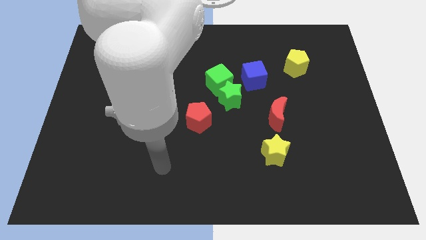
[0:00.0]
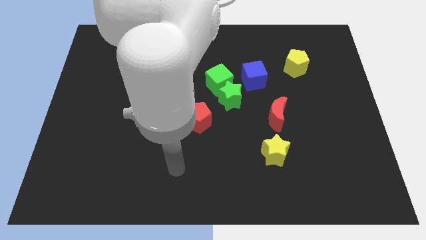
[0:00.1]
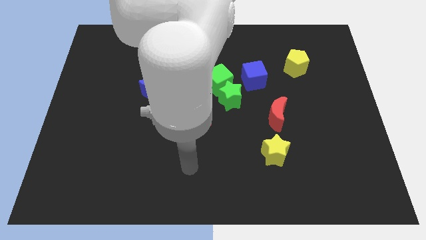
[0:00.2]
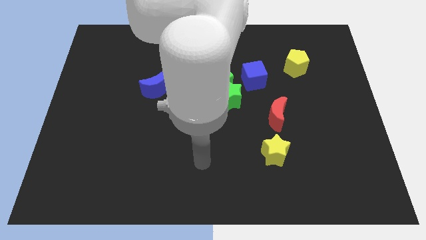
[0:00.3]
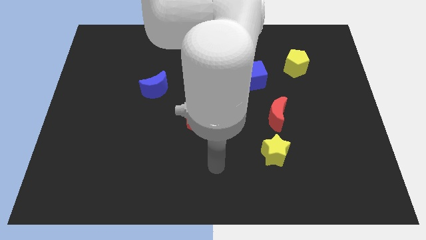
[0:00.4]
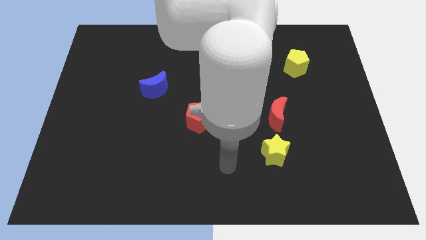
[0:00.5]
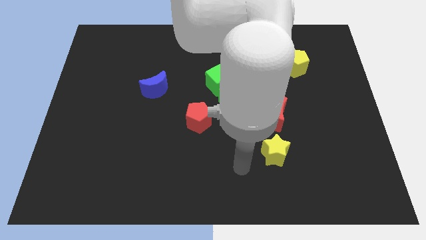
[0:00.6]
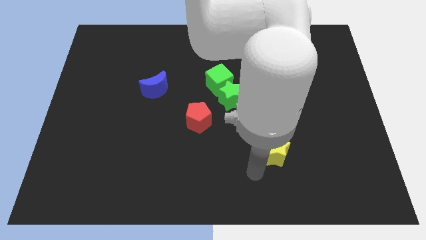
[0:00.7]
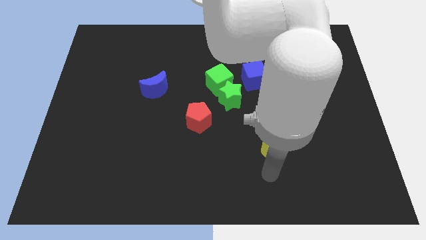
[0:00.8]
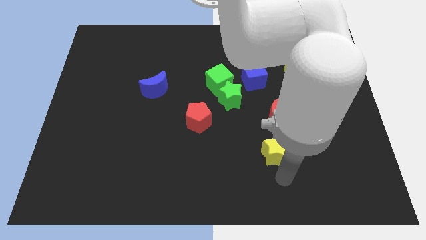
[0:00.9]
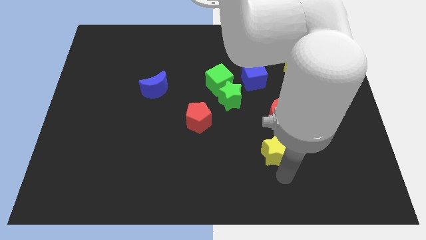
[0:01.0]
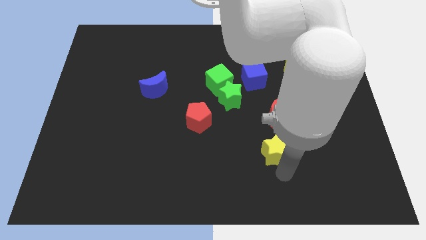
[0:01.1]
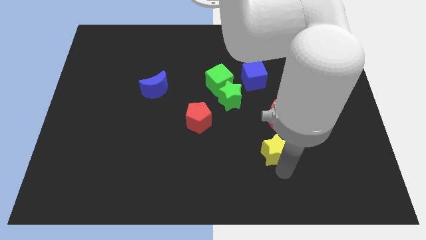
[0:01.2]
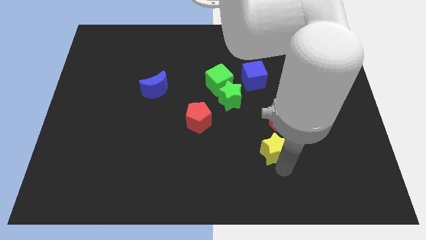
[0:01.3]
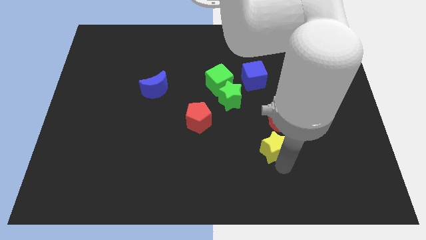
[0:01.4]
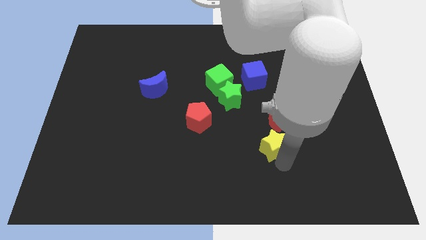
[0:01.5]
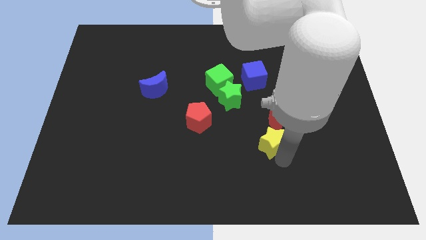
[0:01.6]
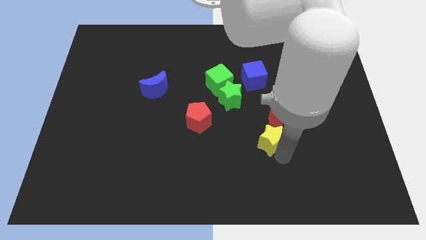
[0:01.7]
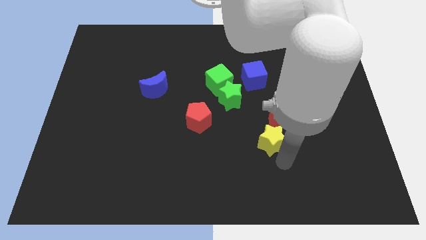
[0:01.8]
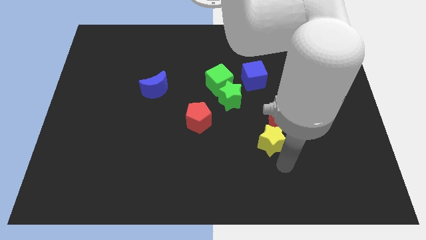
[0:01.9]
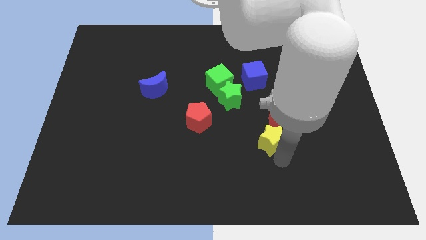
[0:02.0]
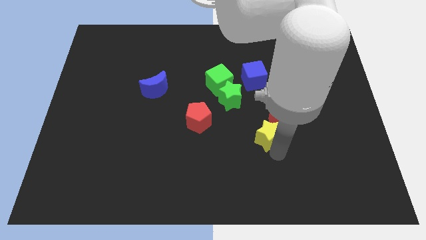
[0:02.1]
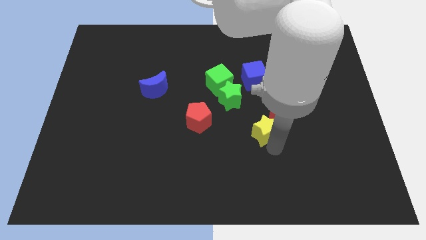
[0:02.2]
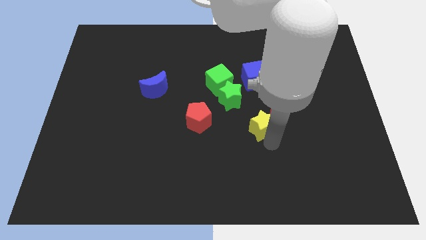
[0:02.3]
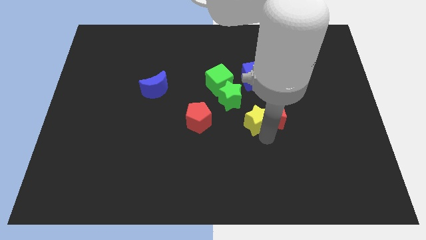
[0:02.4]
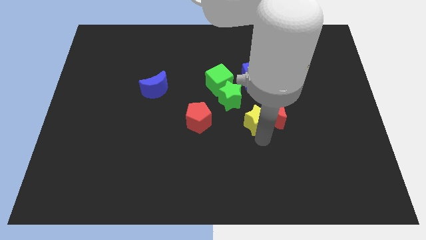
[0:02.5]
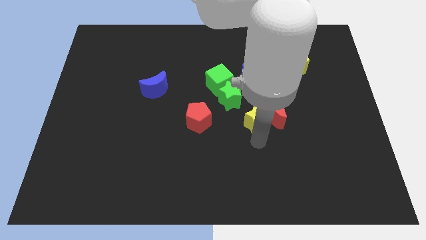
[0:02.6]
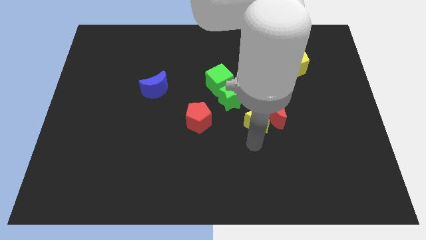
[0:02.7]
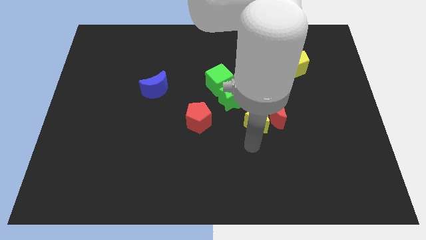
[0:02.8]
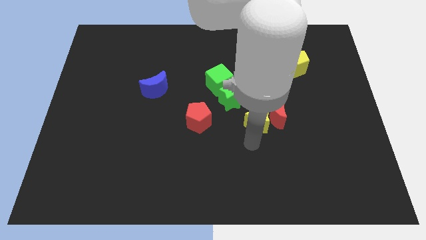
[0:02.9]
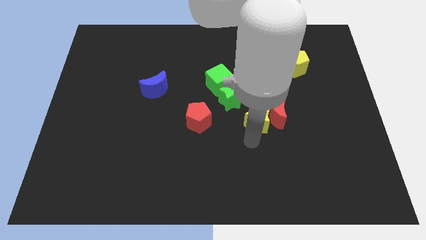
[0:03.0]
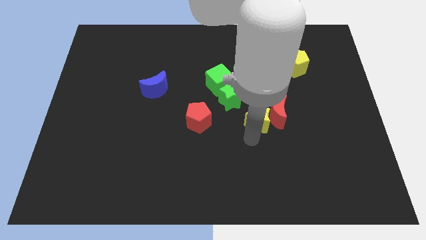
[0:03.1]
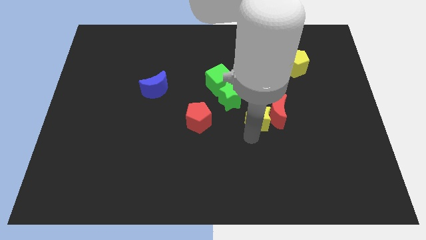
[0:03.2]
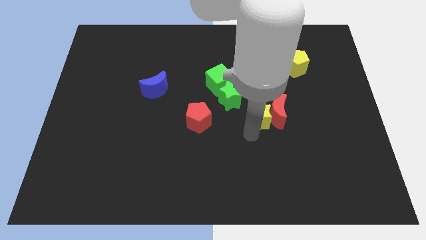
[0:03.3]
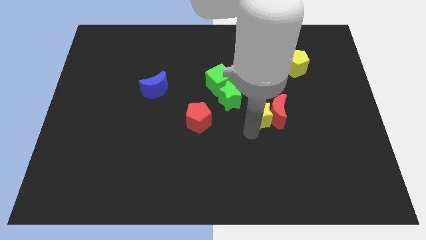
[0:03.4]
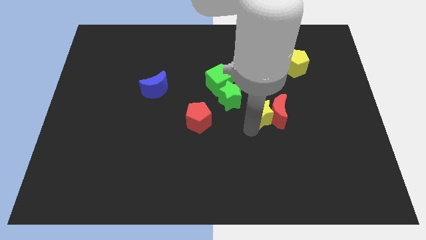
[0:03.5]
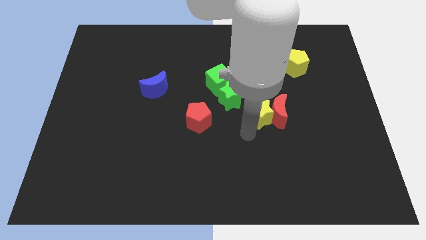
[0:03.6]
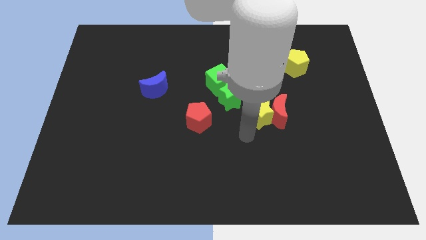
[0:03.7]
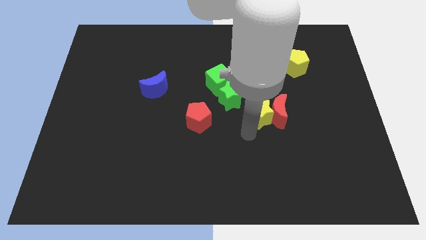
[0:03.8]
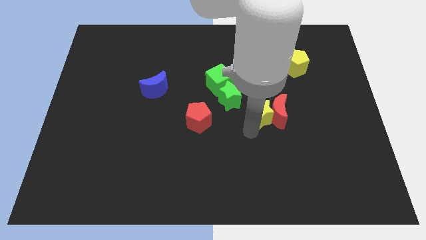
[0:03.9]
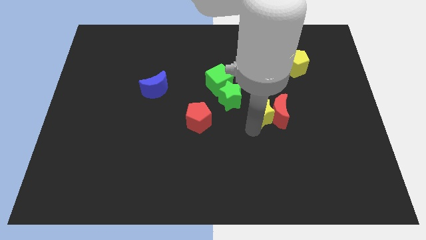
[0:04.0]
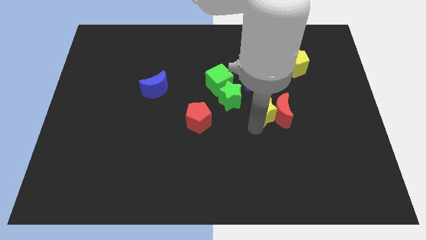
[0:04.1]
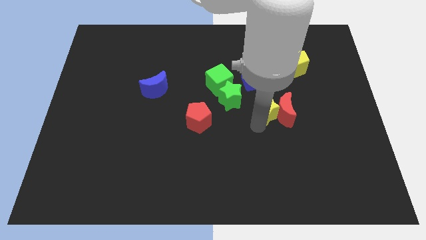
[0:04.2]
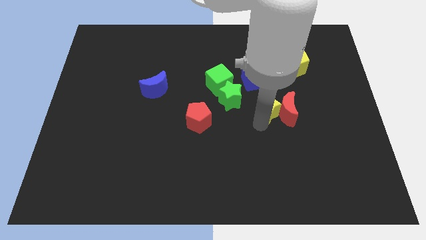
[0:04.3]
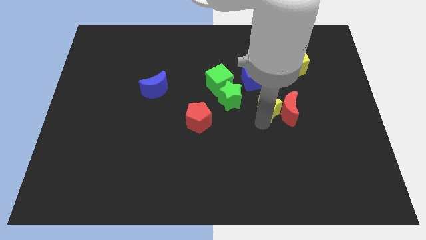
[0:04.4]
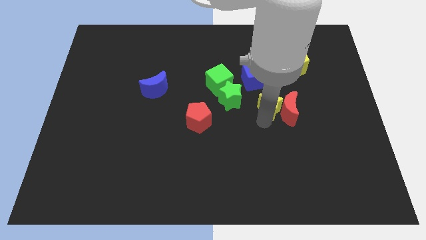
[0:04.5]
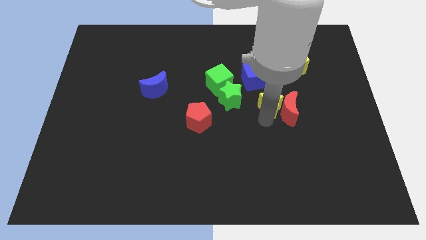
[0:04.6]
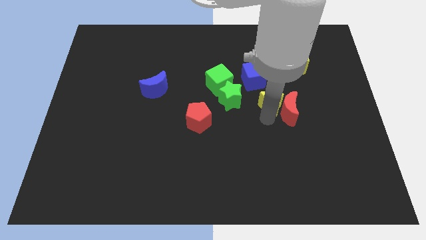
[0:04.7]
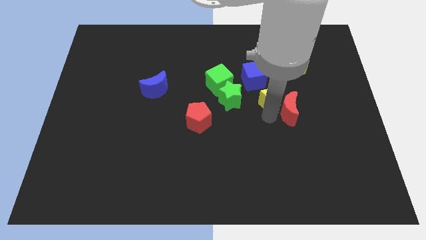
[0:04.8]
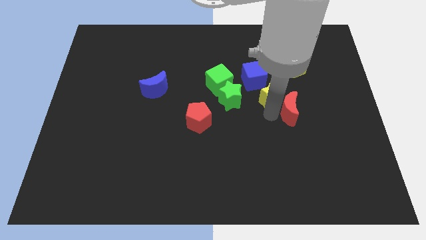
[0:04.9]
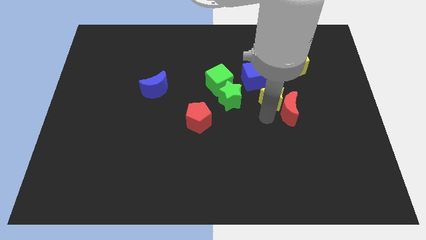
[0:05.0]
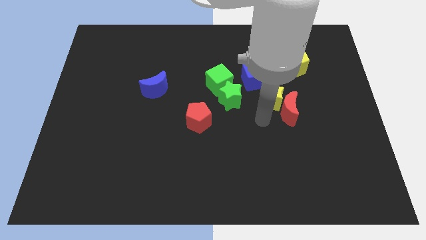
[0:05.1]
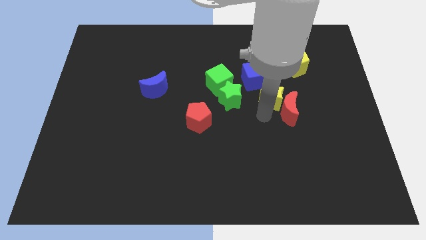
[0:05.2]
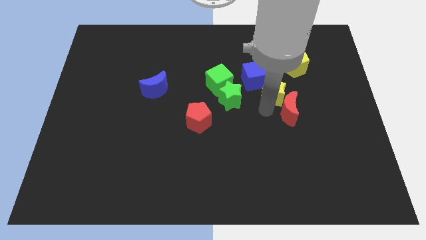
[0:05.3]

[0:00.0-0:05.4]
slide the yellow star diagonally down and to the left of the yellow pentagon
